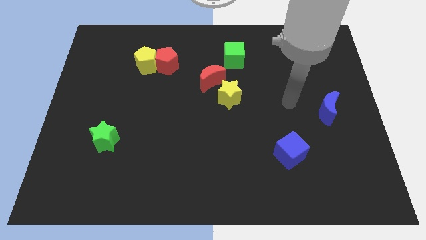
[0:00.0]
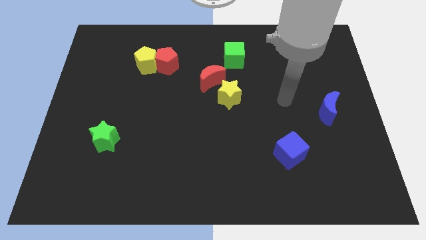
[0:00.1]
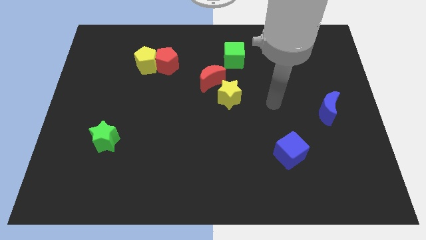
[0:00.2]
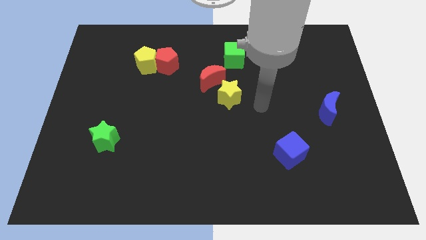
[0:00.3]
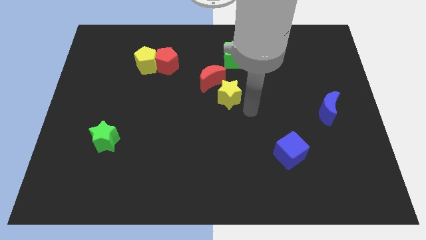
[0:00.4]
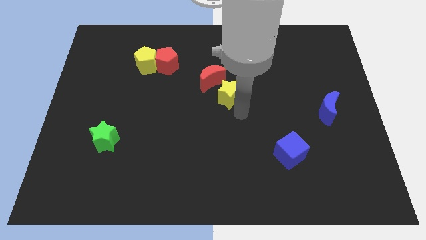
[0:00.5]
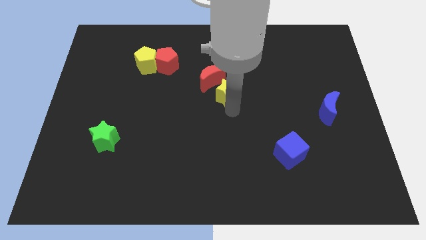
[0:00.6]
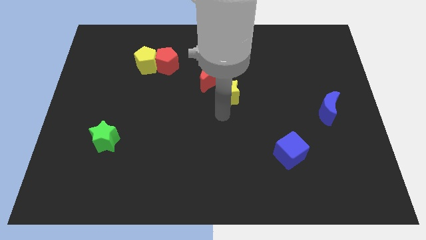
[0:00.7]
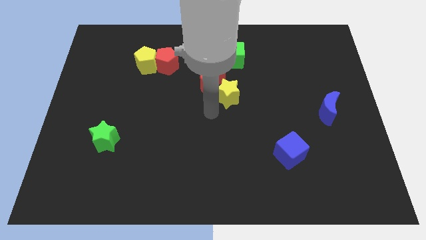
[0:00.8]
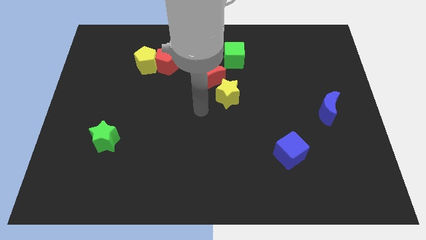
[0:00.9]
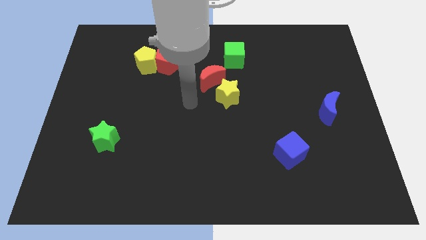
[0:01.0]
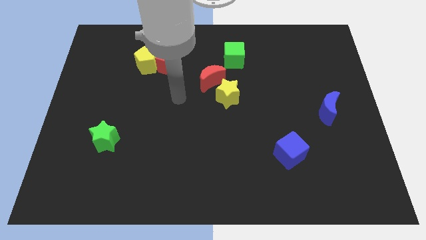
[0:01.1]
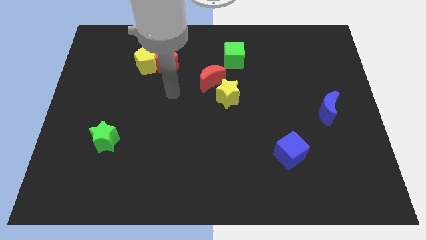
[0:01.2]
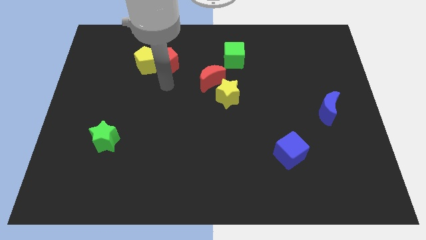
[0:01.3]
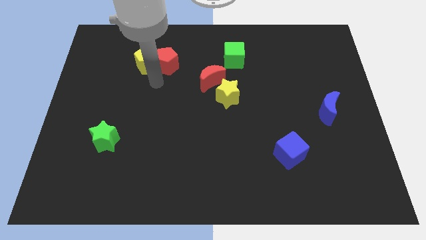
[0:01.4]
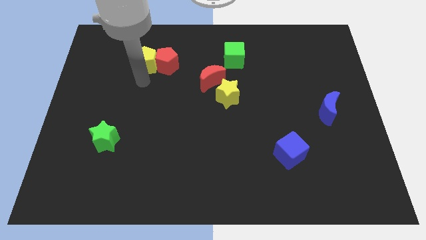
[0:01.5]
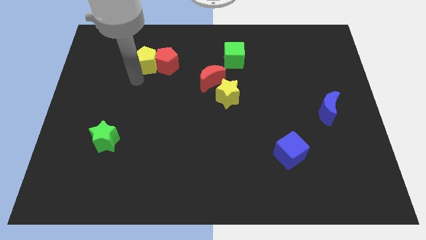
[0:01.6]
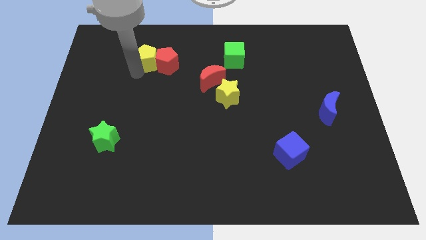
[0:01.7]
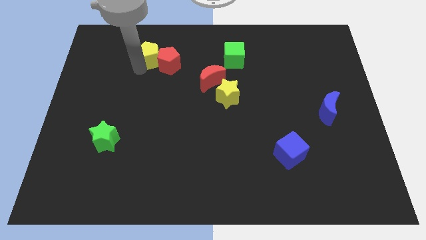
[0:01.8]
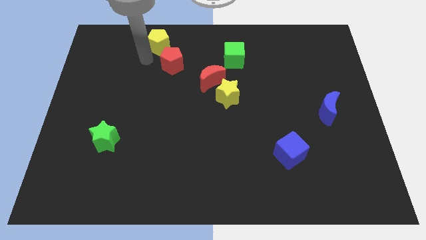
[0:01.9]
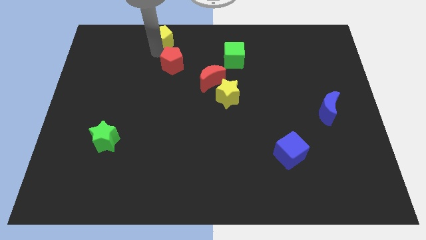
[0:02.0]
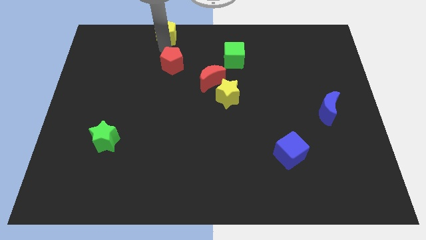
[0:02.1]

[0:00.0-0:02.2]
move the red pentagon away from the yellow pentagon

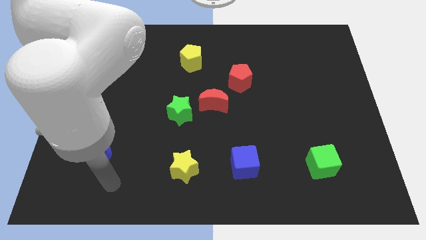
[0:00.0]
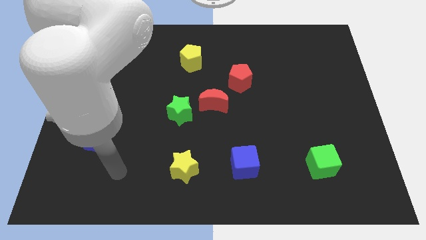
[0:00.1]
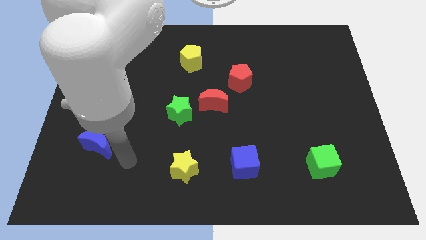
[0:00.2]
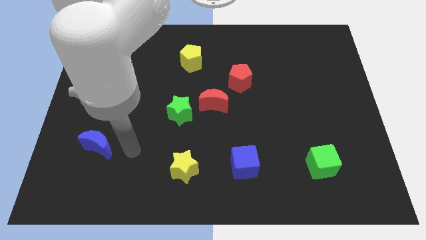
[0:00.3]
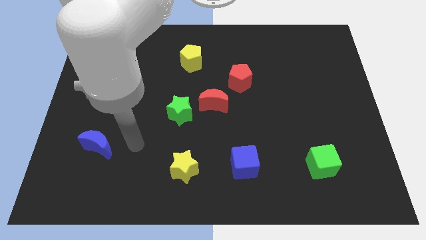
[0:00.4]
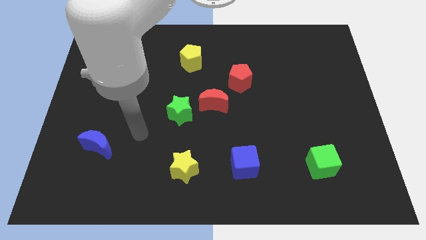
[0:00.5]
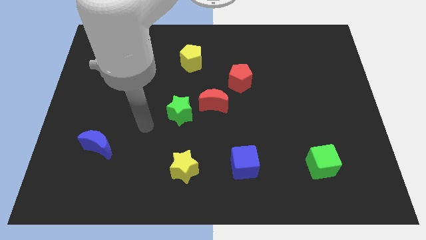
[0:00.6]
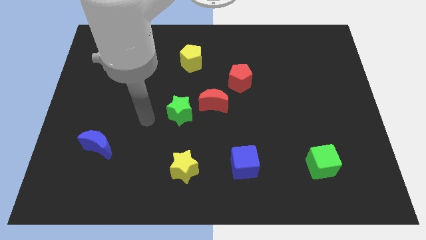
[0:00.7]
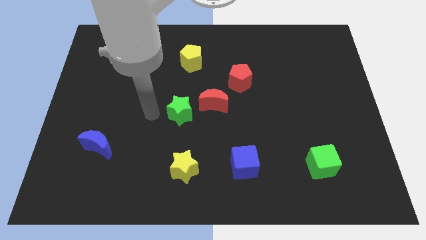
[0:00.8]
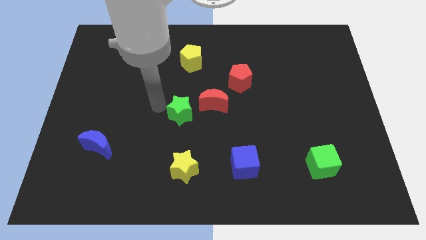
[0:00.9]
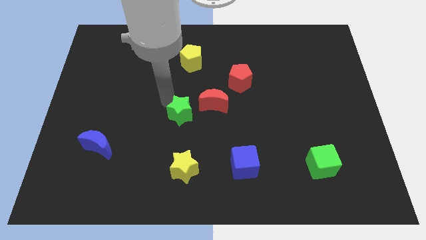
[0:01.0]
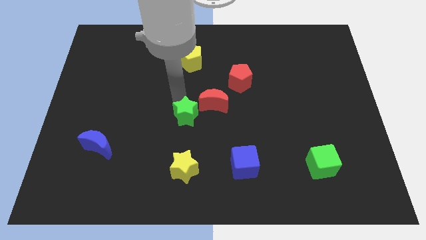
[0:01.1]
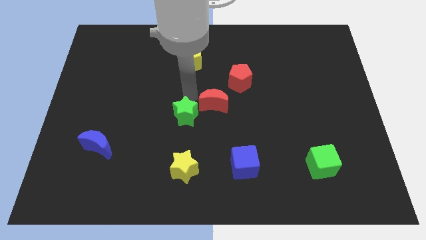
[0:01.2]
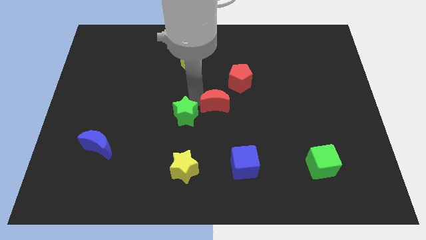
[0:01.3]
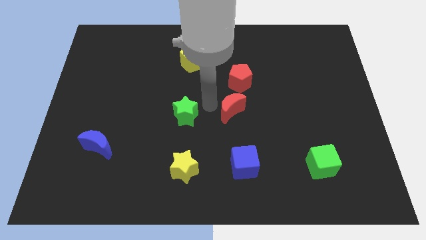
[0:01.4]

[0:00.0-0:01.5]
pull the green star apart from the red moon

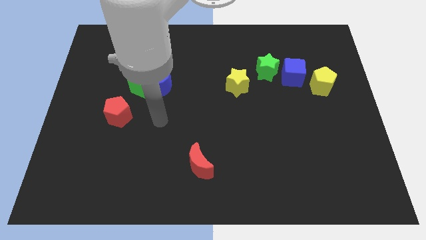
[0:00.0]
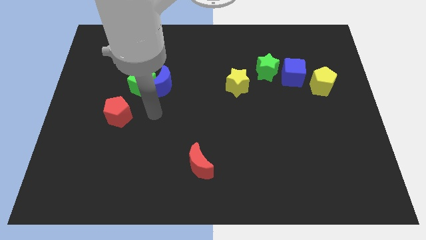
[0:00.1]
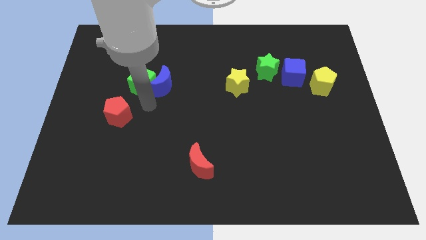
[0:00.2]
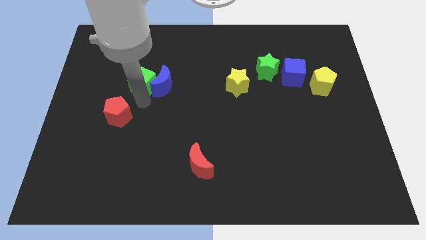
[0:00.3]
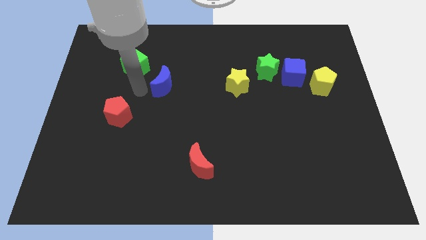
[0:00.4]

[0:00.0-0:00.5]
pull the blue moon apart from the green cube

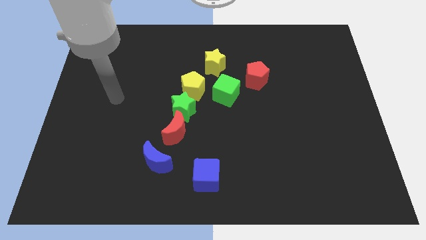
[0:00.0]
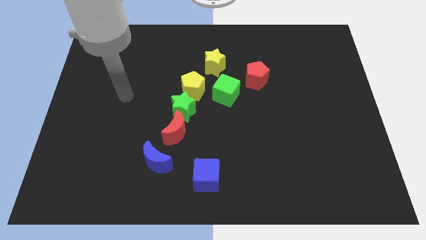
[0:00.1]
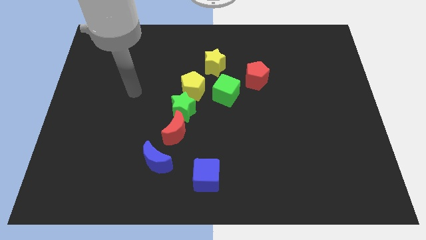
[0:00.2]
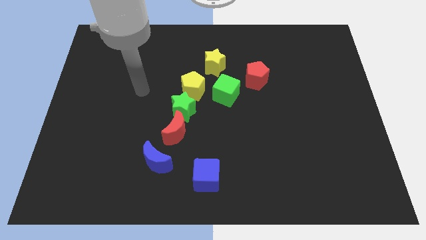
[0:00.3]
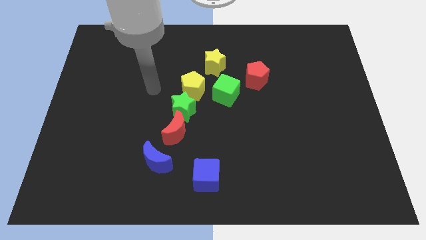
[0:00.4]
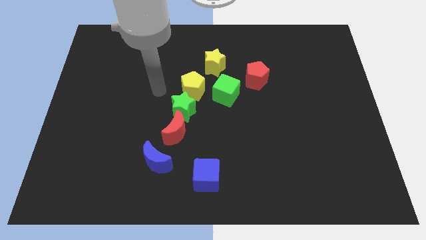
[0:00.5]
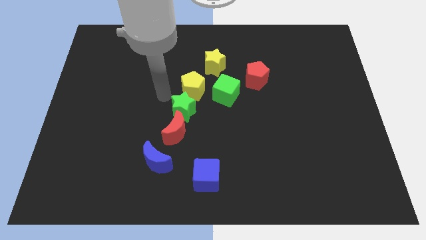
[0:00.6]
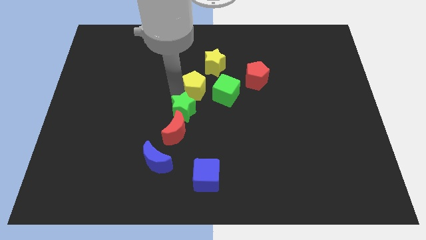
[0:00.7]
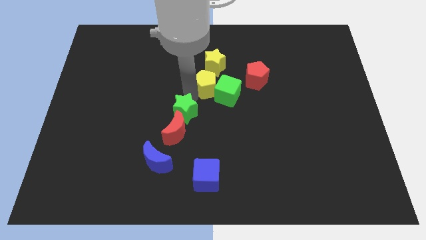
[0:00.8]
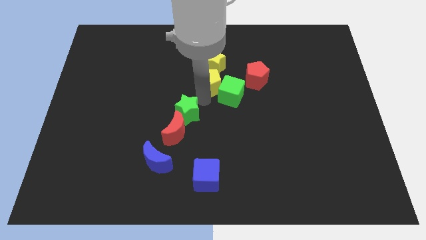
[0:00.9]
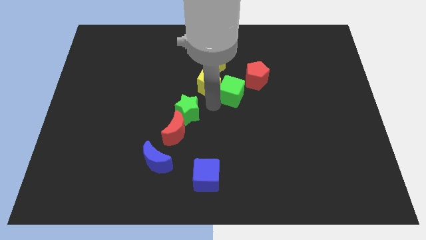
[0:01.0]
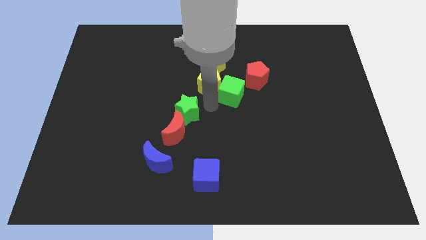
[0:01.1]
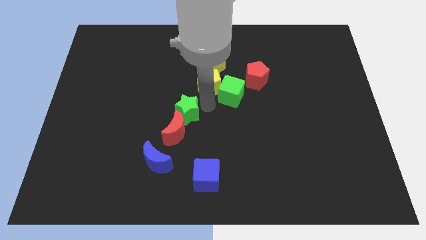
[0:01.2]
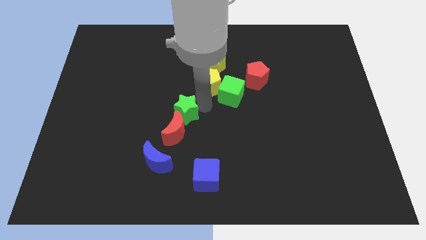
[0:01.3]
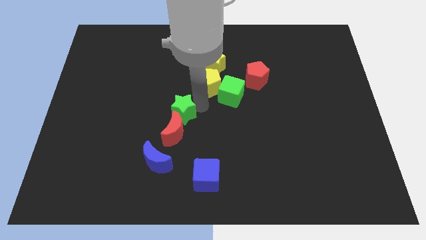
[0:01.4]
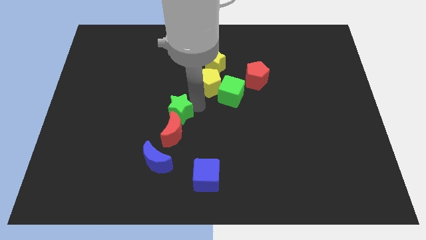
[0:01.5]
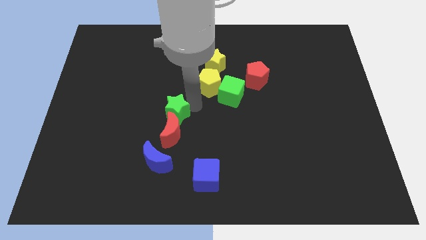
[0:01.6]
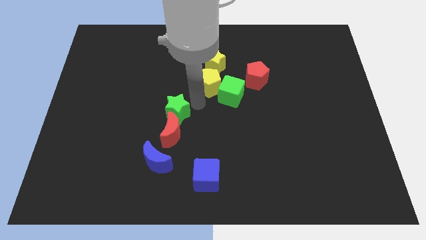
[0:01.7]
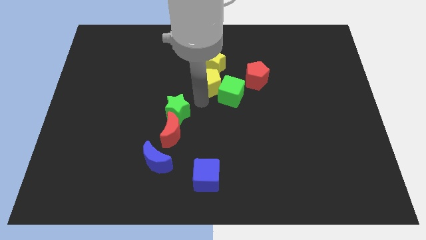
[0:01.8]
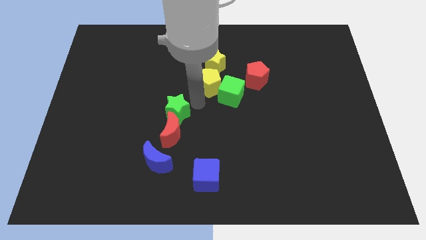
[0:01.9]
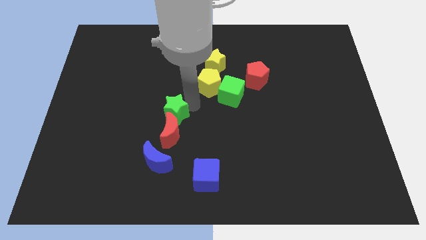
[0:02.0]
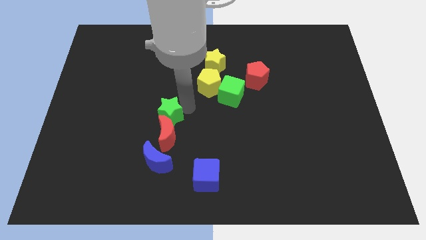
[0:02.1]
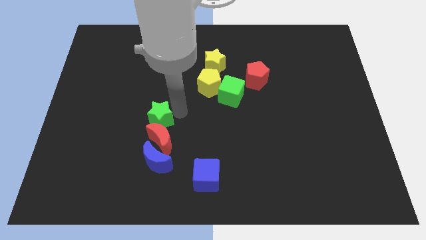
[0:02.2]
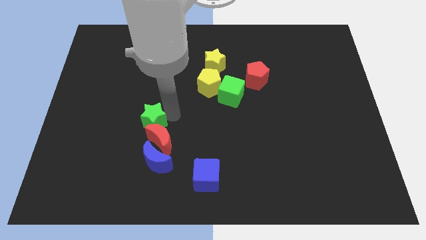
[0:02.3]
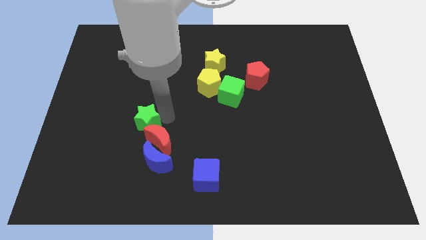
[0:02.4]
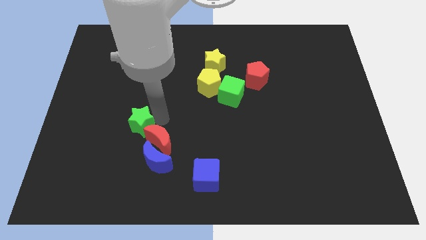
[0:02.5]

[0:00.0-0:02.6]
separate the green star from the red moon and yellow pentagon

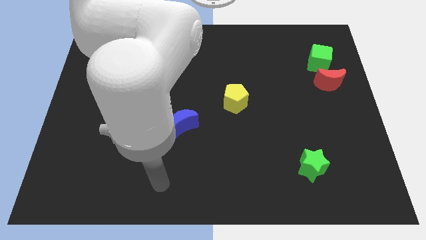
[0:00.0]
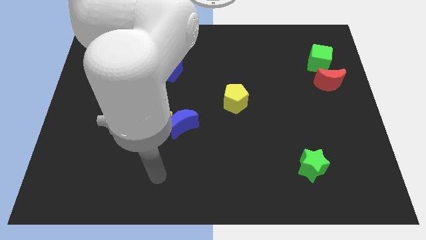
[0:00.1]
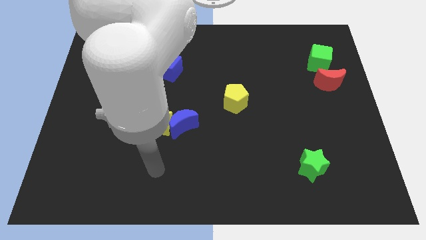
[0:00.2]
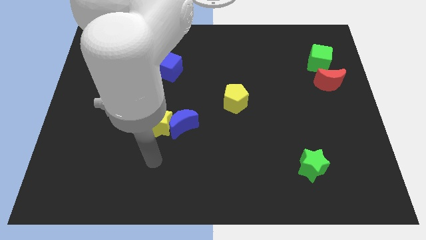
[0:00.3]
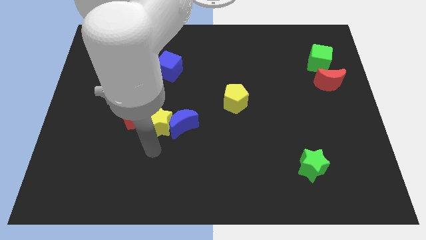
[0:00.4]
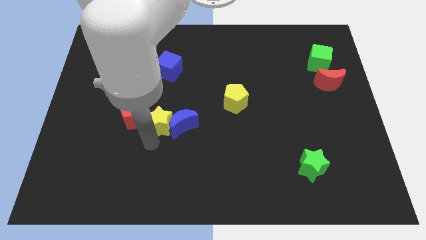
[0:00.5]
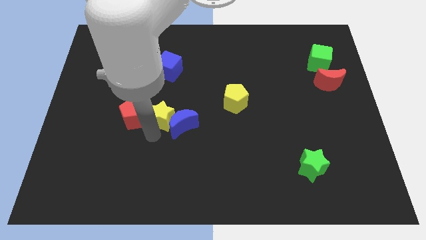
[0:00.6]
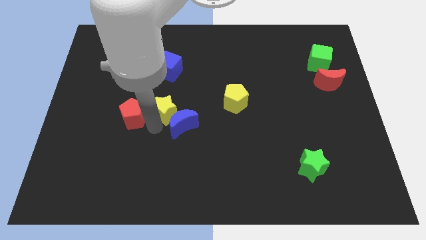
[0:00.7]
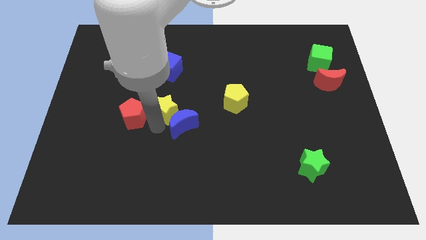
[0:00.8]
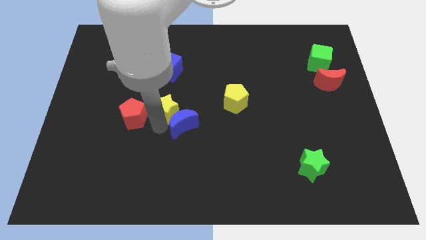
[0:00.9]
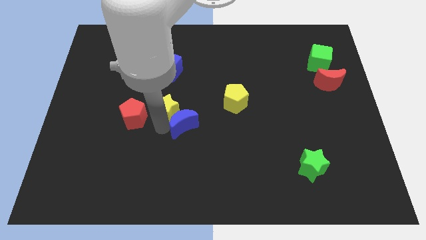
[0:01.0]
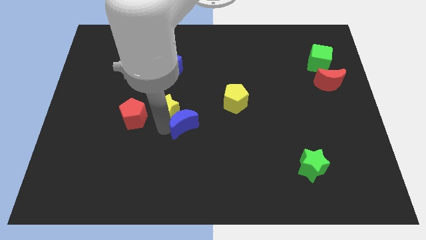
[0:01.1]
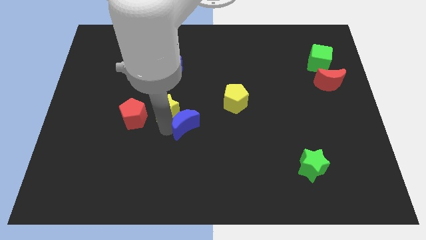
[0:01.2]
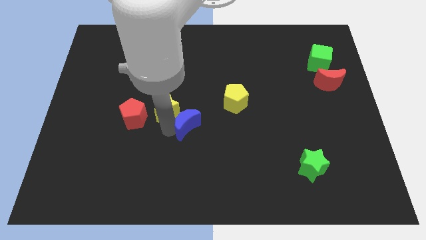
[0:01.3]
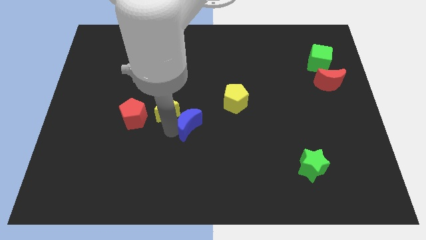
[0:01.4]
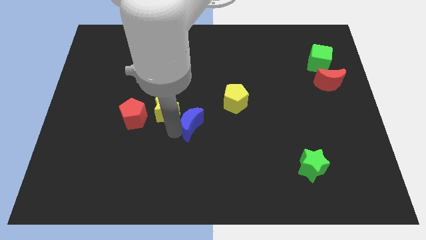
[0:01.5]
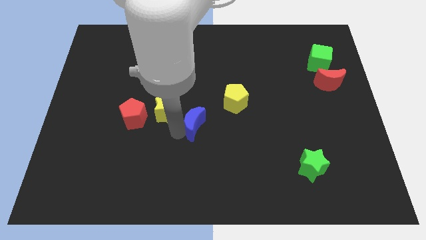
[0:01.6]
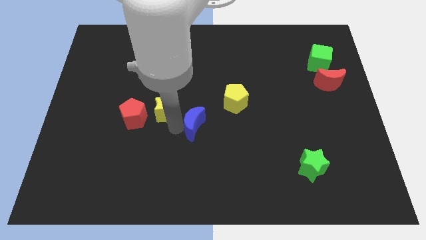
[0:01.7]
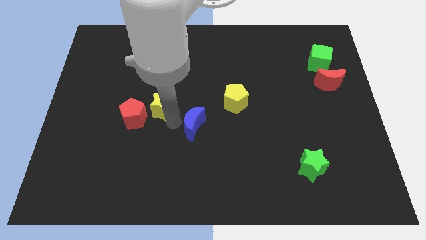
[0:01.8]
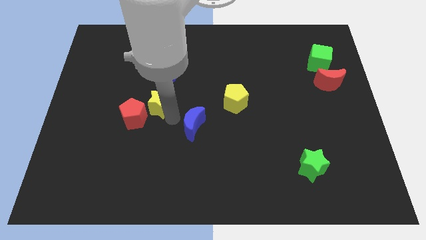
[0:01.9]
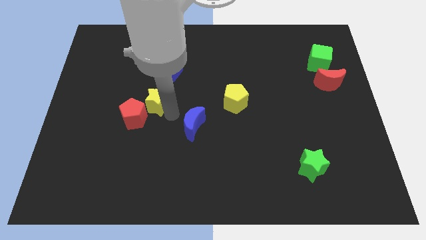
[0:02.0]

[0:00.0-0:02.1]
separate the blue moon from the yellow star

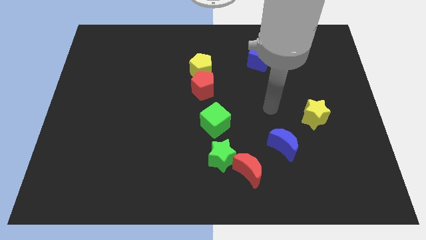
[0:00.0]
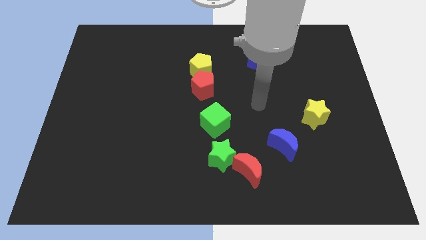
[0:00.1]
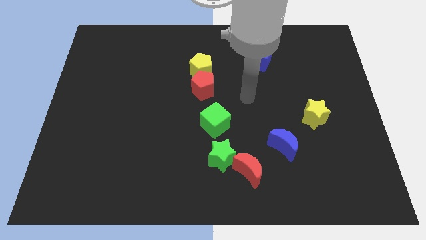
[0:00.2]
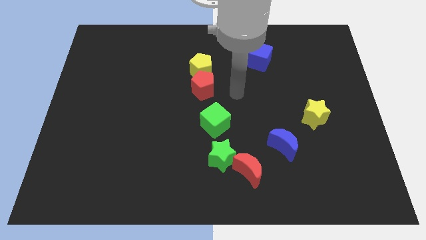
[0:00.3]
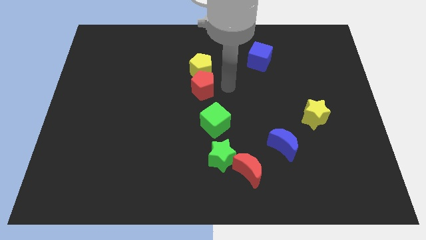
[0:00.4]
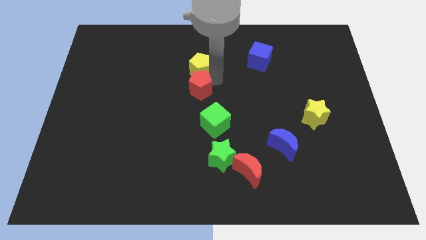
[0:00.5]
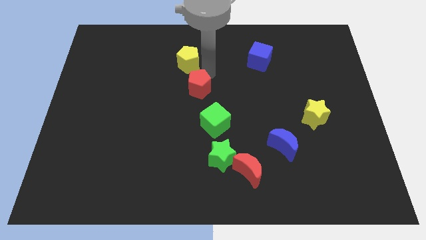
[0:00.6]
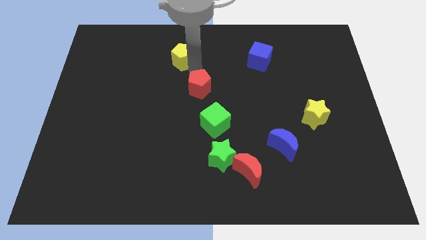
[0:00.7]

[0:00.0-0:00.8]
pull the red pentagon apart from the yellow pentagon
